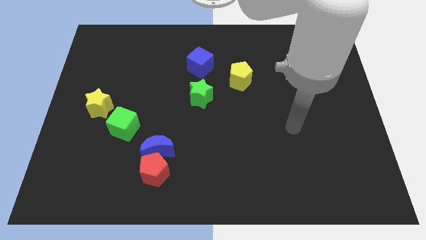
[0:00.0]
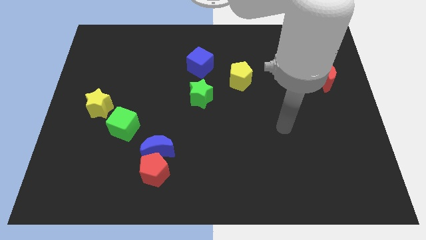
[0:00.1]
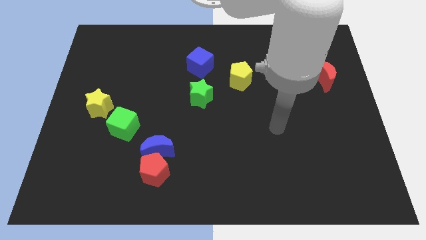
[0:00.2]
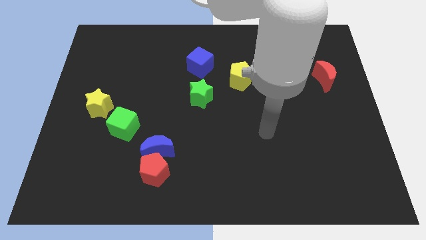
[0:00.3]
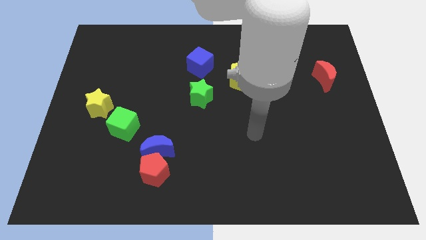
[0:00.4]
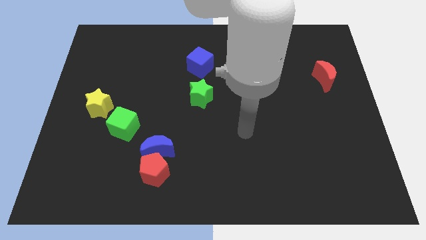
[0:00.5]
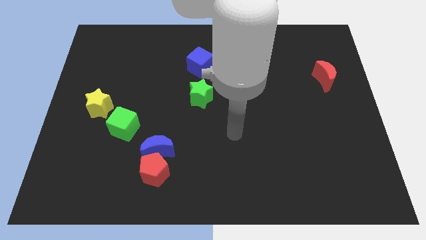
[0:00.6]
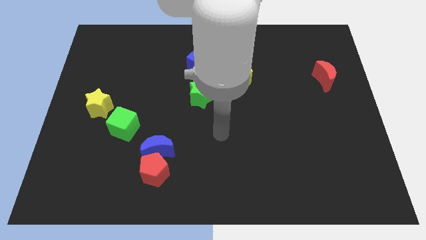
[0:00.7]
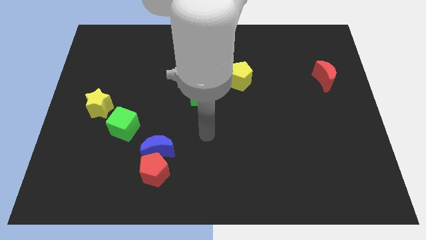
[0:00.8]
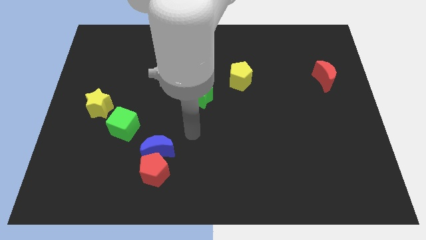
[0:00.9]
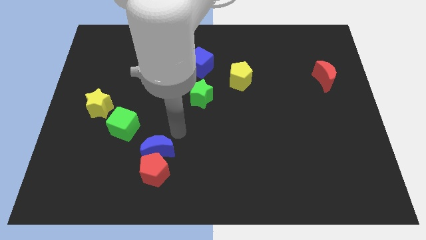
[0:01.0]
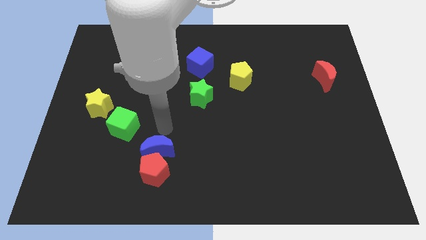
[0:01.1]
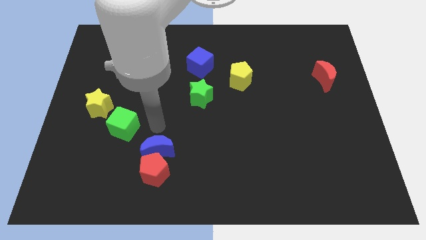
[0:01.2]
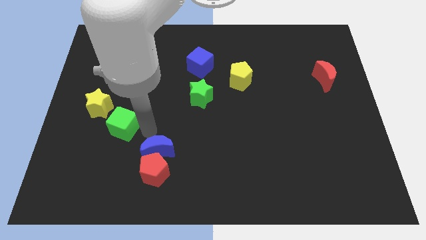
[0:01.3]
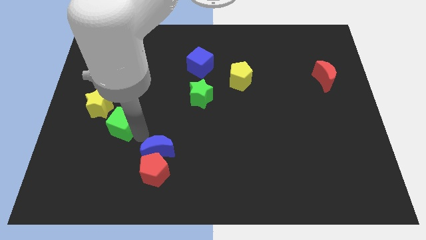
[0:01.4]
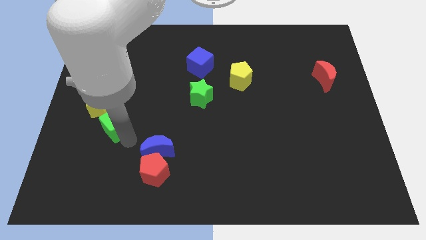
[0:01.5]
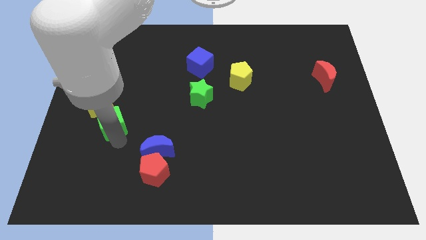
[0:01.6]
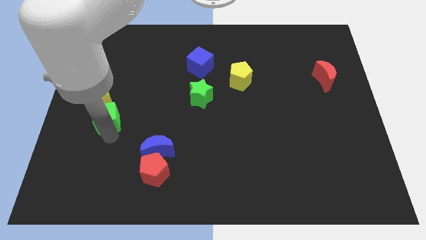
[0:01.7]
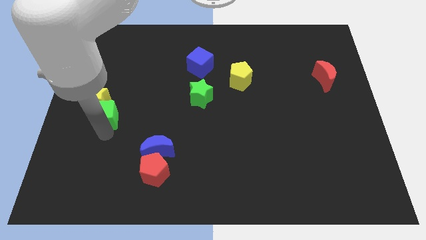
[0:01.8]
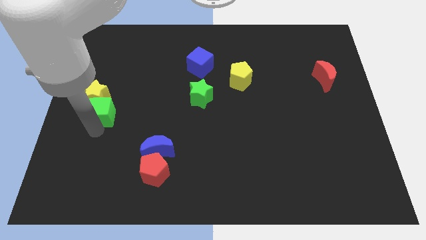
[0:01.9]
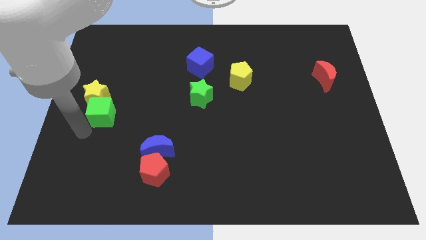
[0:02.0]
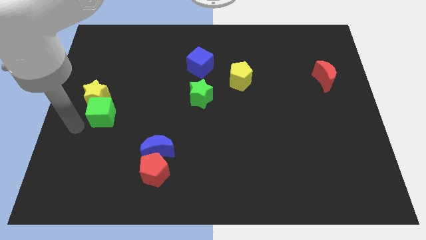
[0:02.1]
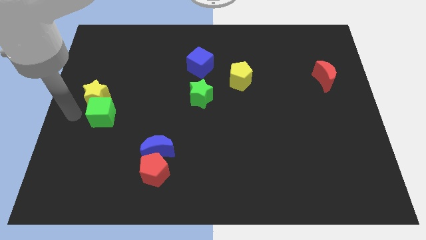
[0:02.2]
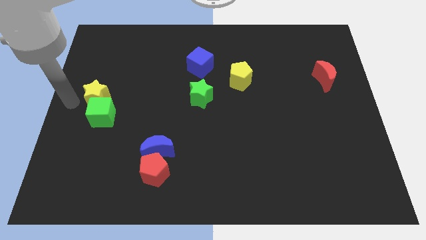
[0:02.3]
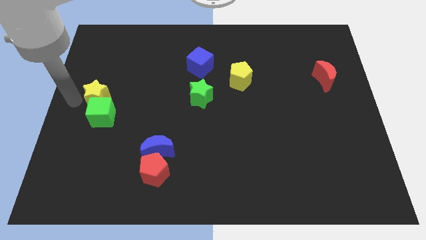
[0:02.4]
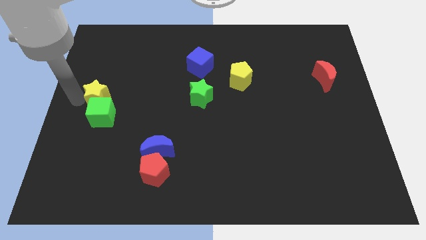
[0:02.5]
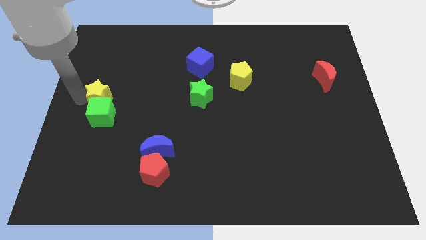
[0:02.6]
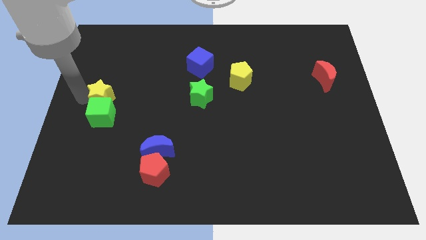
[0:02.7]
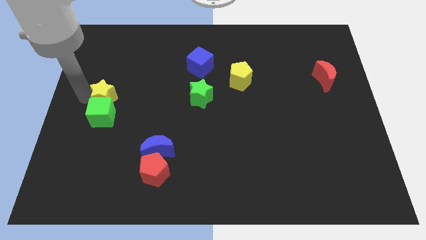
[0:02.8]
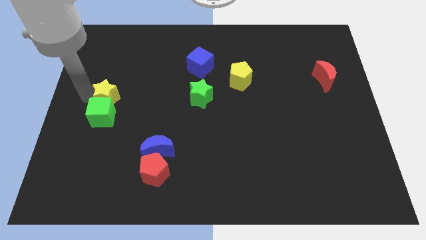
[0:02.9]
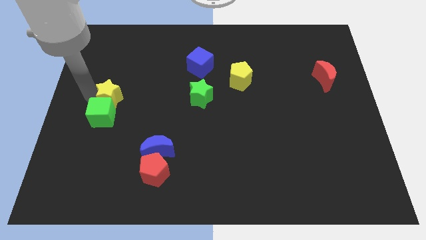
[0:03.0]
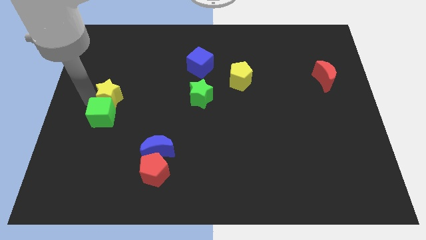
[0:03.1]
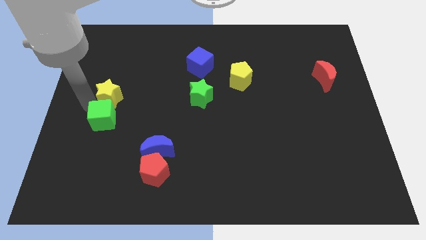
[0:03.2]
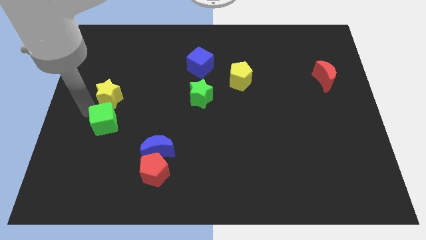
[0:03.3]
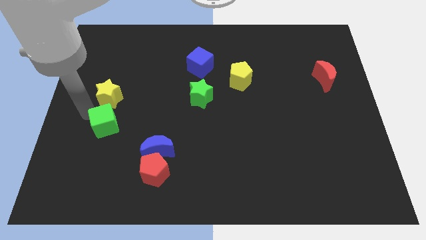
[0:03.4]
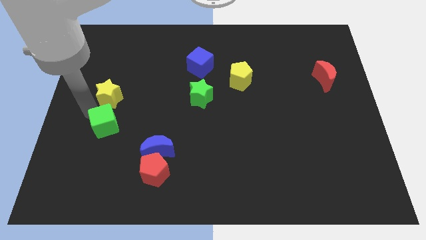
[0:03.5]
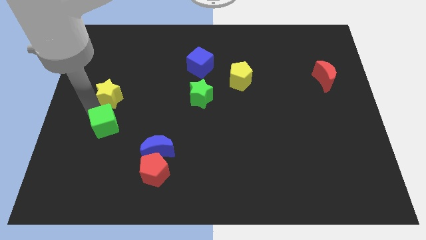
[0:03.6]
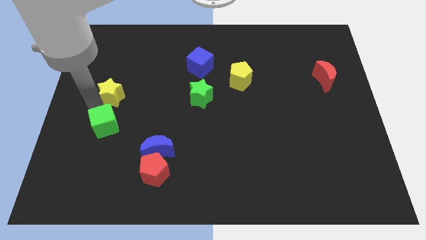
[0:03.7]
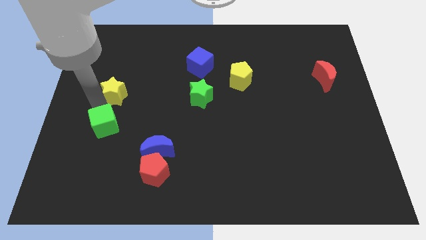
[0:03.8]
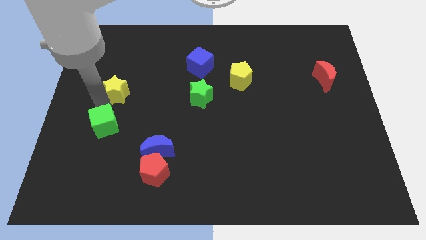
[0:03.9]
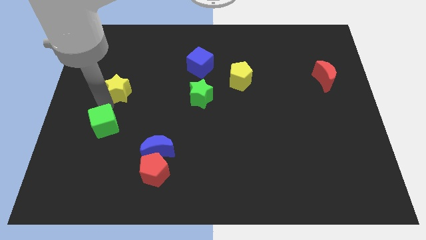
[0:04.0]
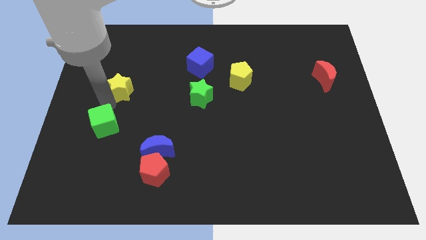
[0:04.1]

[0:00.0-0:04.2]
move the yellow star slightly upwards and to the right diagonally

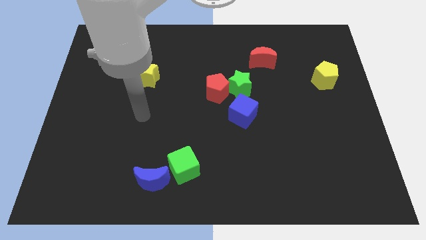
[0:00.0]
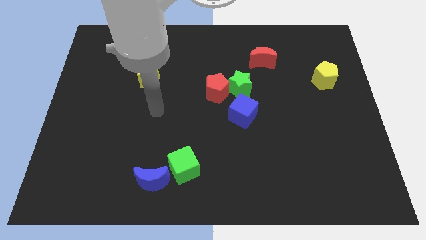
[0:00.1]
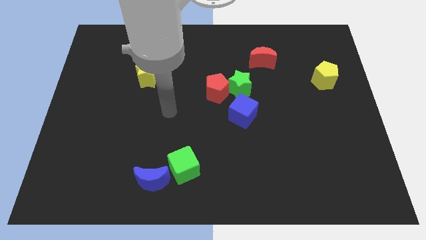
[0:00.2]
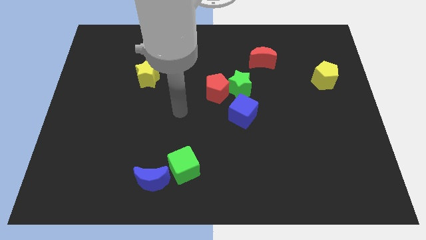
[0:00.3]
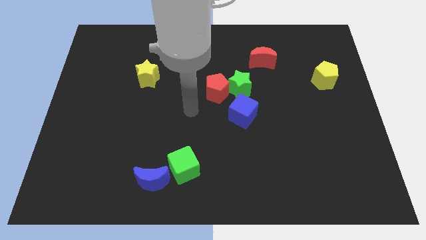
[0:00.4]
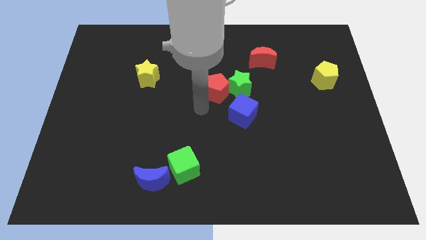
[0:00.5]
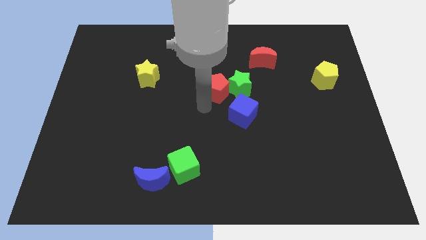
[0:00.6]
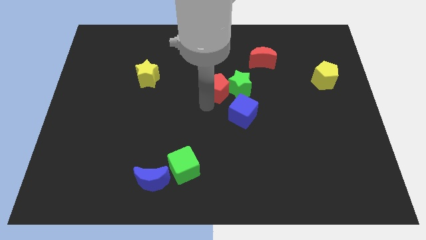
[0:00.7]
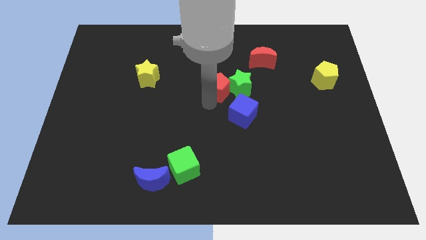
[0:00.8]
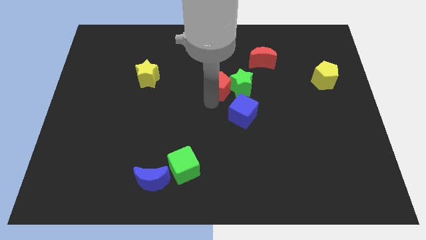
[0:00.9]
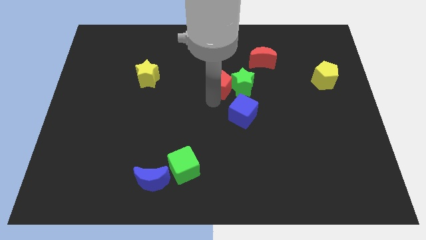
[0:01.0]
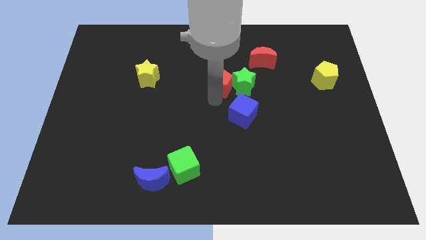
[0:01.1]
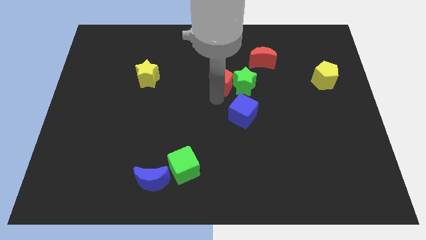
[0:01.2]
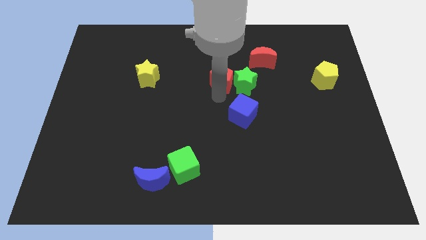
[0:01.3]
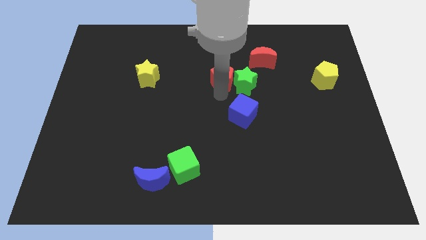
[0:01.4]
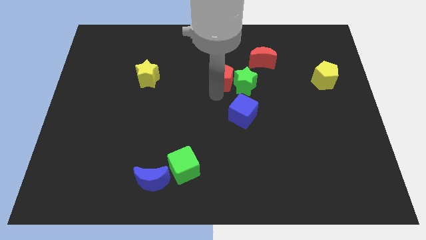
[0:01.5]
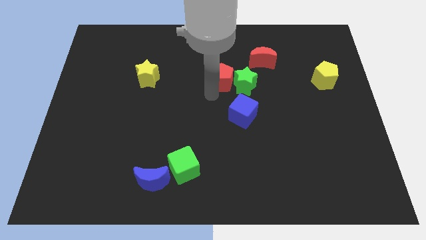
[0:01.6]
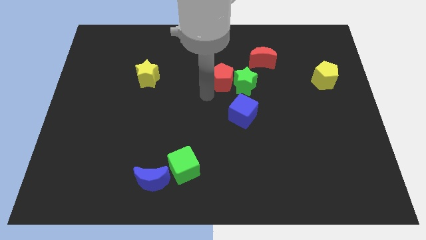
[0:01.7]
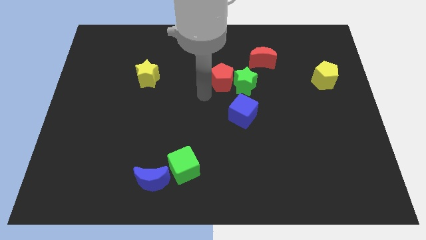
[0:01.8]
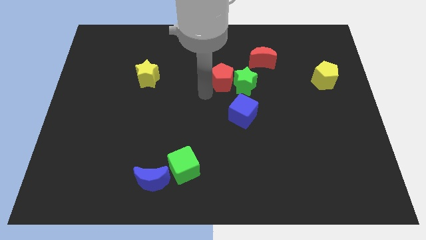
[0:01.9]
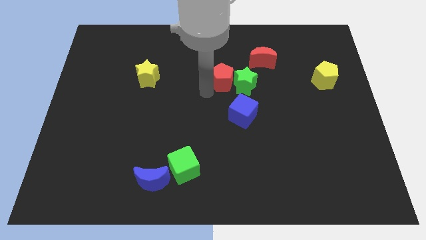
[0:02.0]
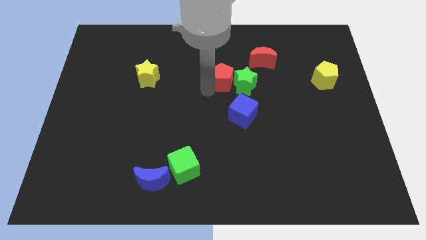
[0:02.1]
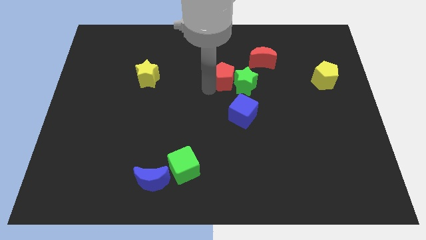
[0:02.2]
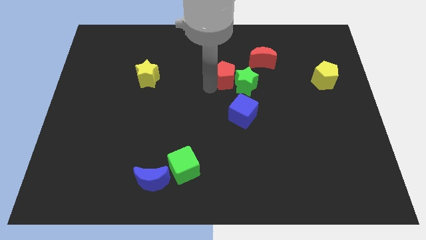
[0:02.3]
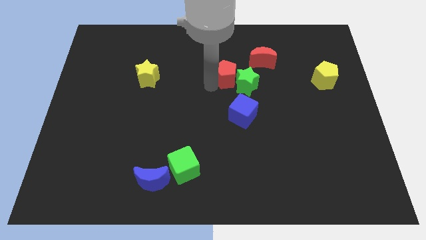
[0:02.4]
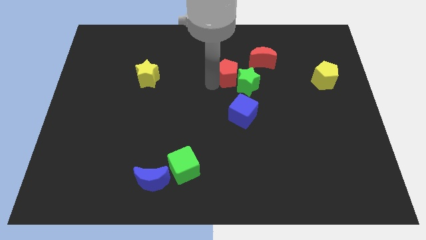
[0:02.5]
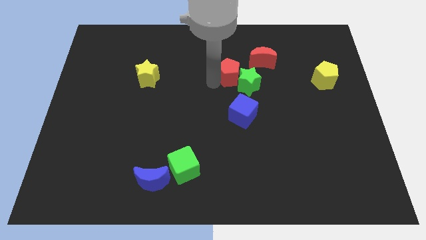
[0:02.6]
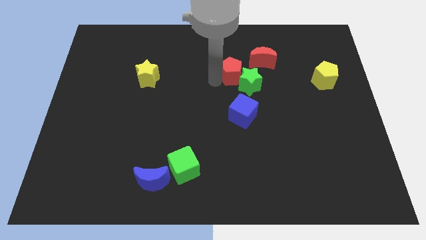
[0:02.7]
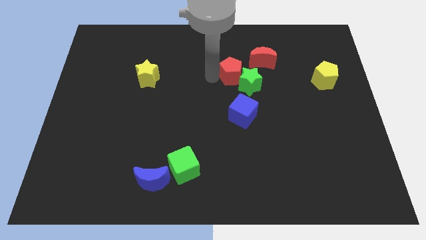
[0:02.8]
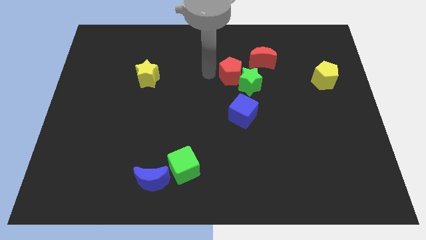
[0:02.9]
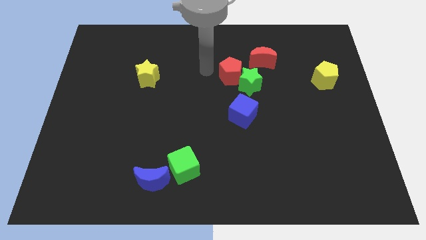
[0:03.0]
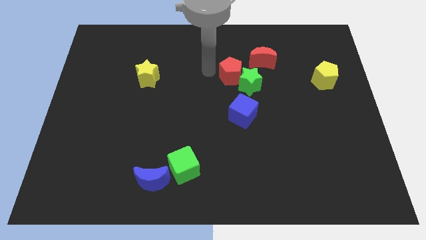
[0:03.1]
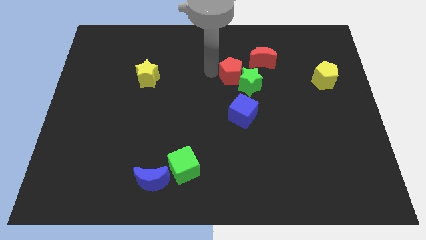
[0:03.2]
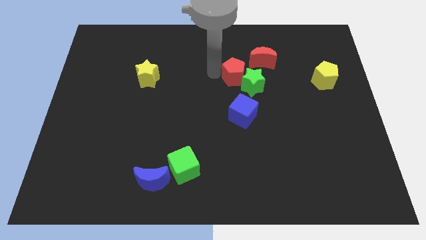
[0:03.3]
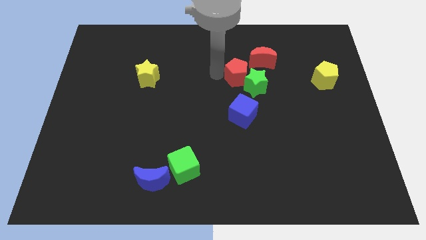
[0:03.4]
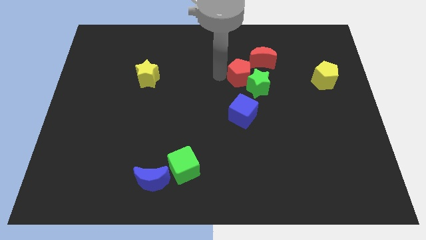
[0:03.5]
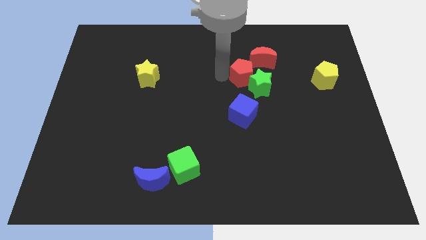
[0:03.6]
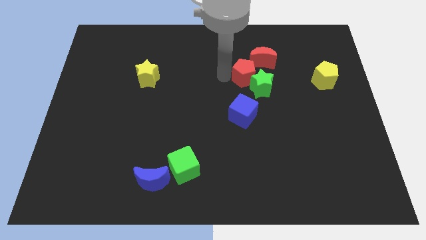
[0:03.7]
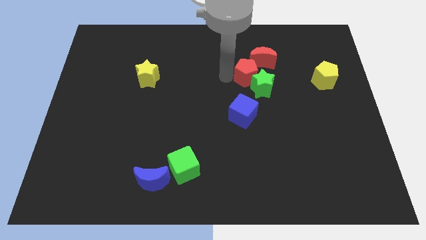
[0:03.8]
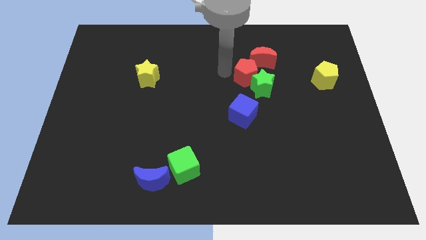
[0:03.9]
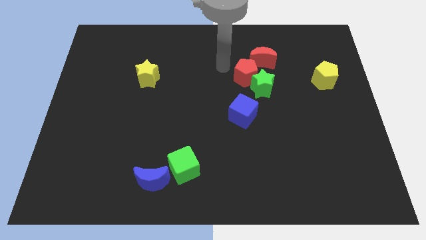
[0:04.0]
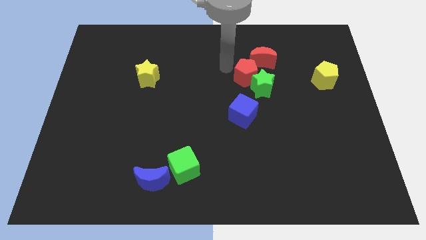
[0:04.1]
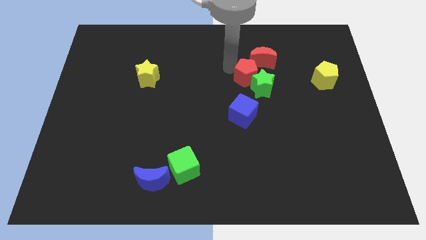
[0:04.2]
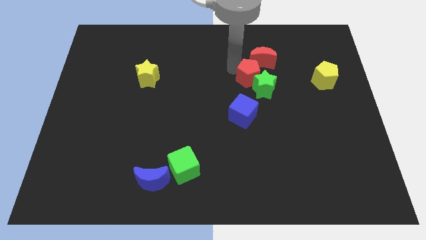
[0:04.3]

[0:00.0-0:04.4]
slightly move the red pentagon right
